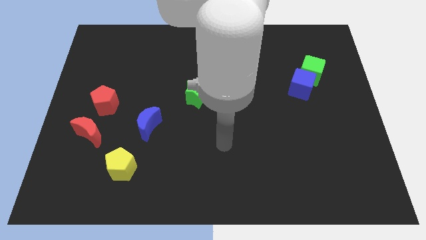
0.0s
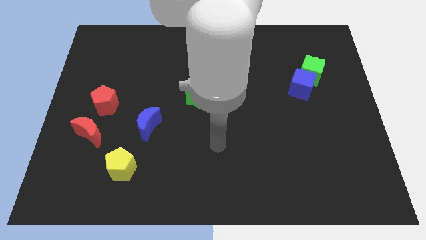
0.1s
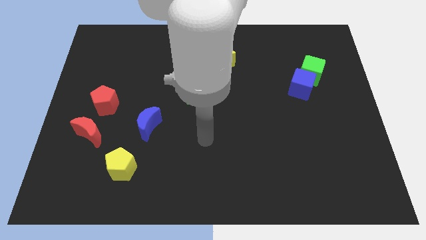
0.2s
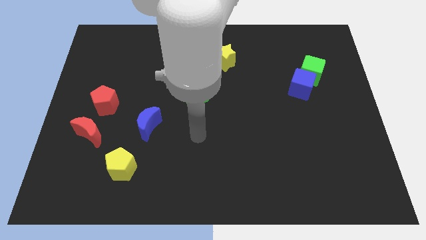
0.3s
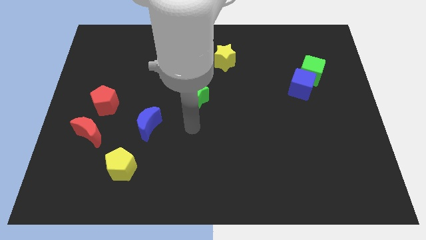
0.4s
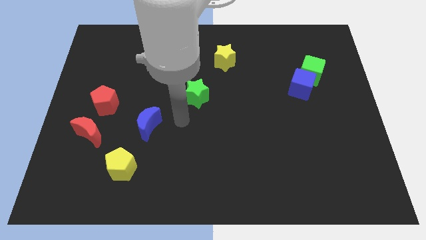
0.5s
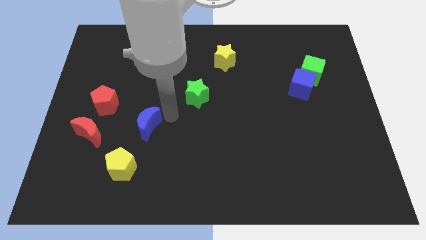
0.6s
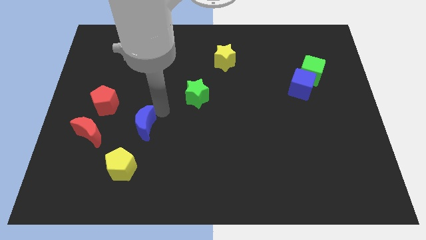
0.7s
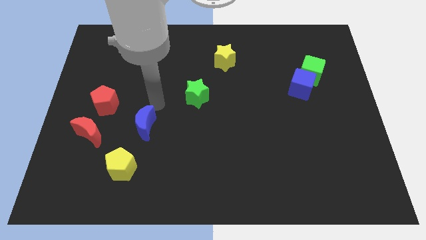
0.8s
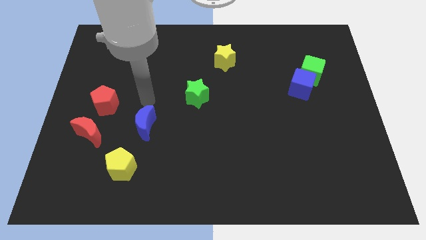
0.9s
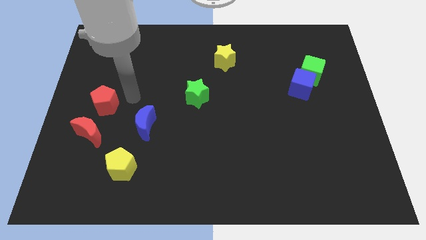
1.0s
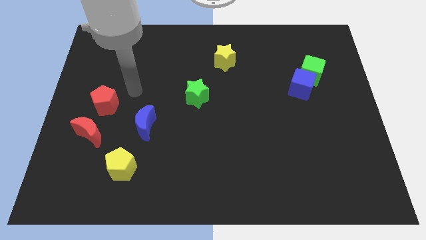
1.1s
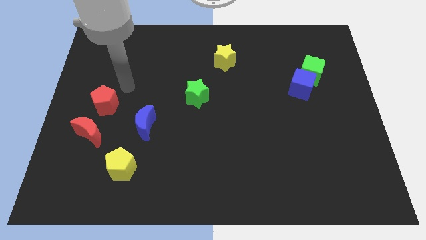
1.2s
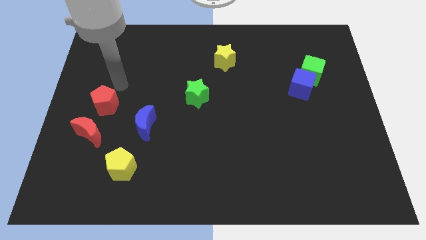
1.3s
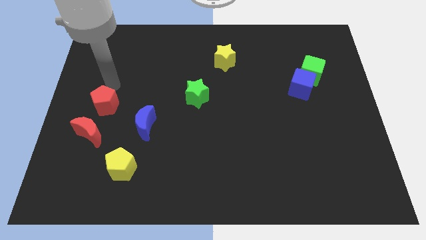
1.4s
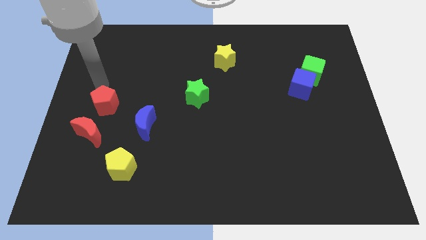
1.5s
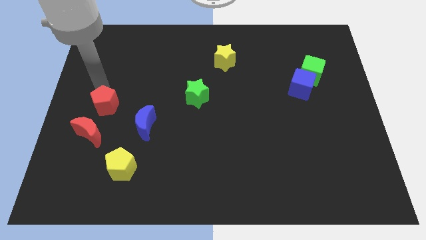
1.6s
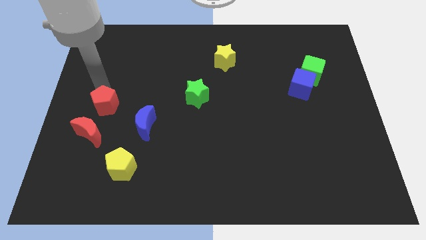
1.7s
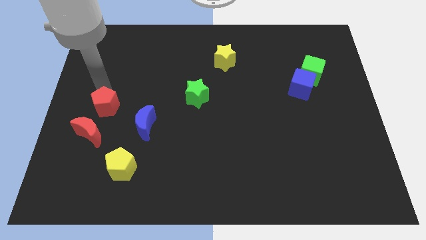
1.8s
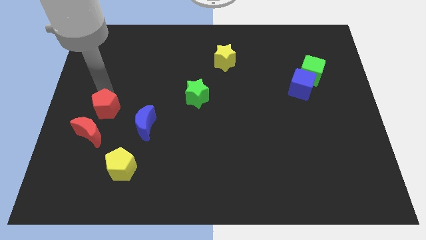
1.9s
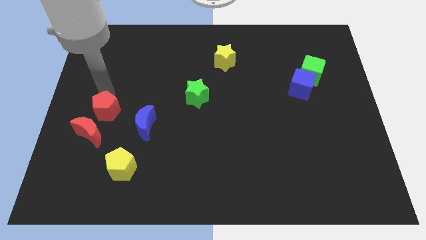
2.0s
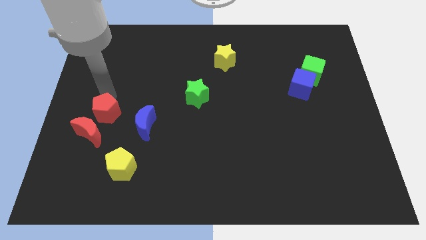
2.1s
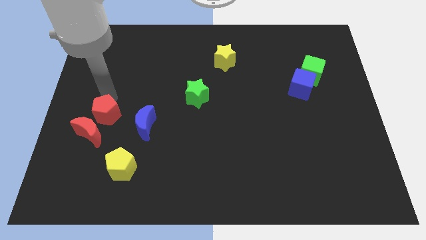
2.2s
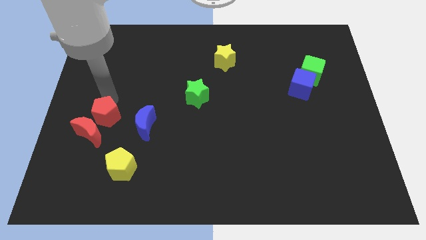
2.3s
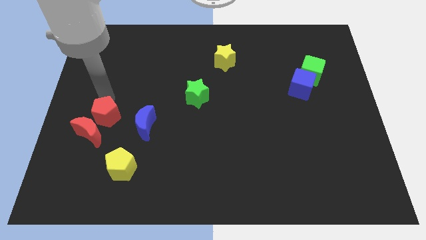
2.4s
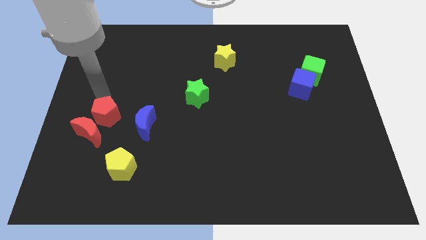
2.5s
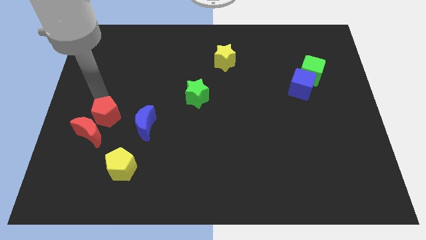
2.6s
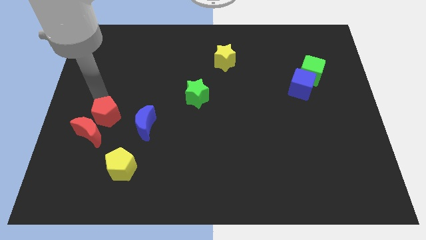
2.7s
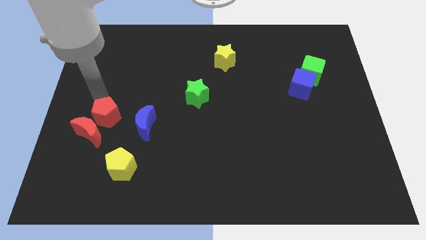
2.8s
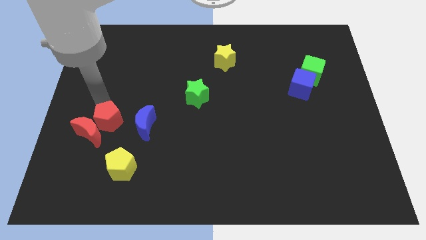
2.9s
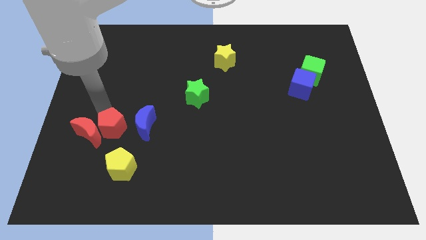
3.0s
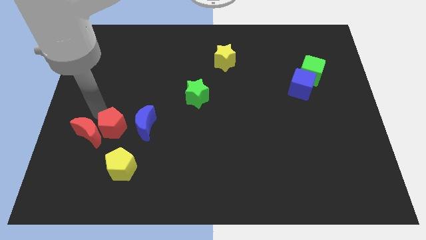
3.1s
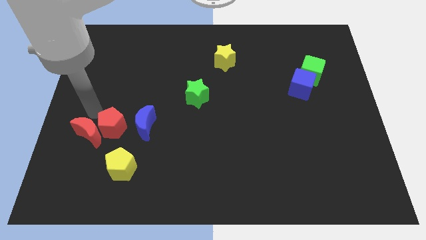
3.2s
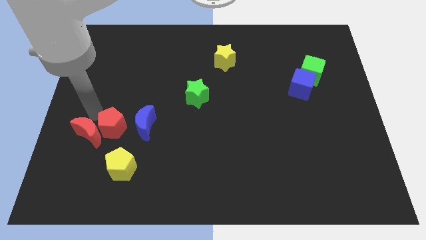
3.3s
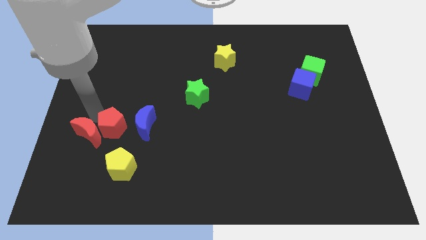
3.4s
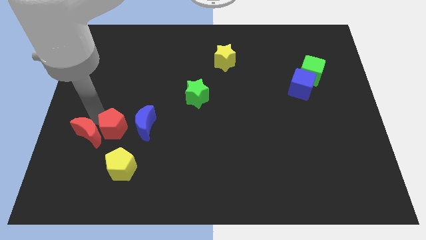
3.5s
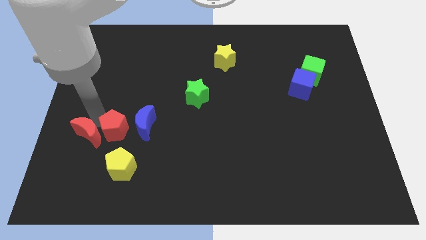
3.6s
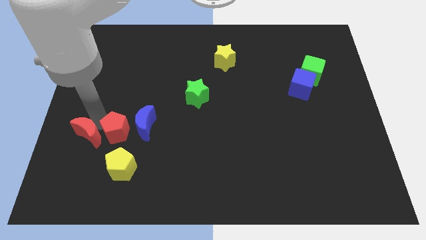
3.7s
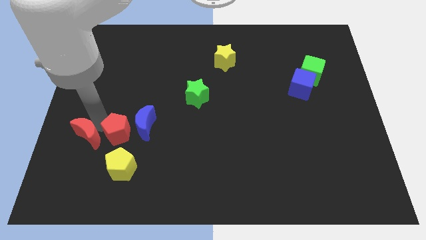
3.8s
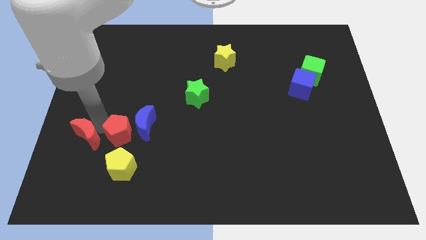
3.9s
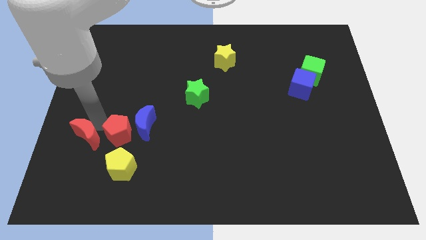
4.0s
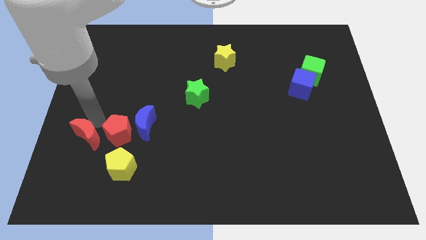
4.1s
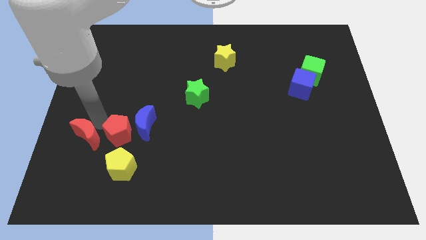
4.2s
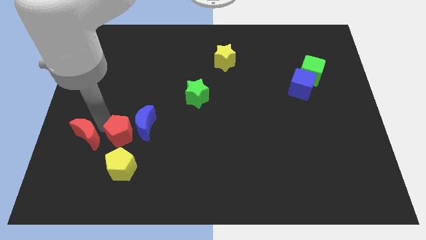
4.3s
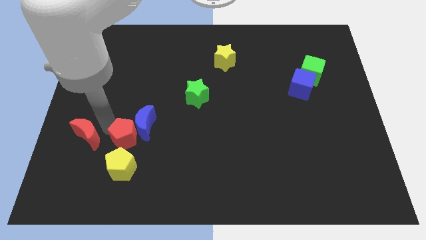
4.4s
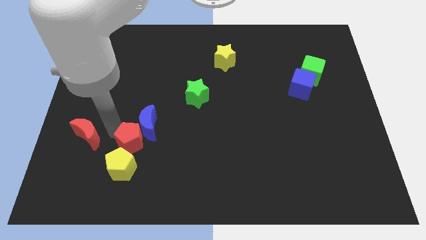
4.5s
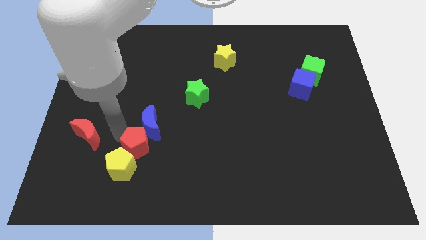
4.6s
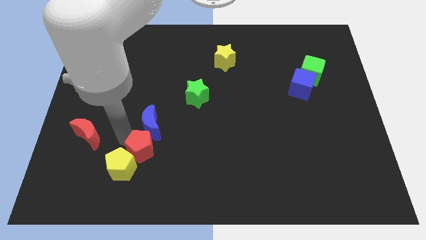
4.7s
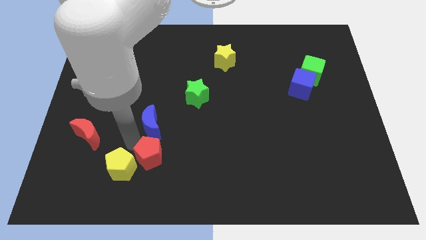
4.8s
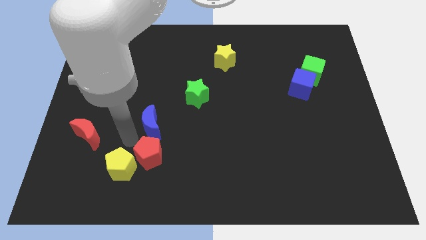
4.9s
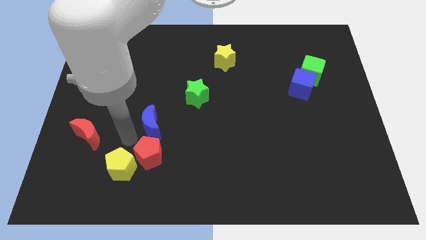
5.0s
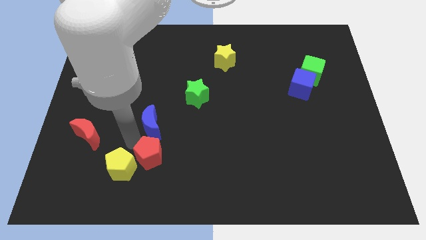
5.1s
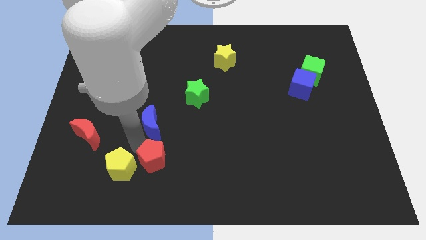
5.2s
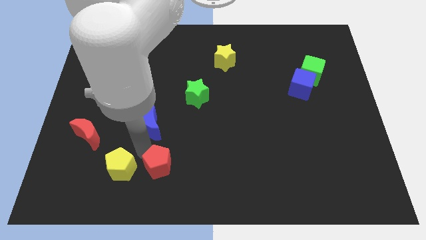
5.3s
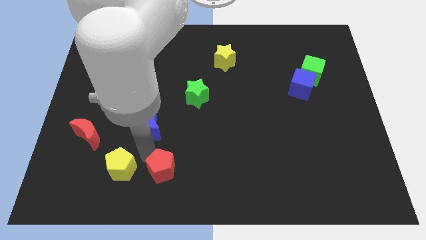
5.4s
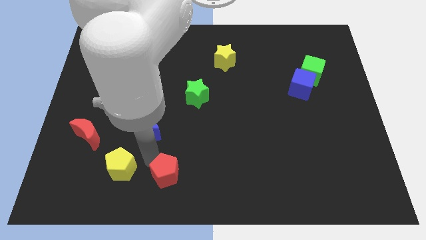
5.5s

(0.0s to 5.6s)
push the red pentagon to the bottom side

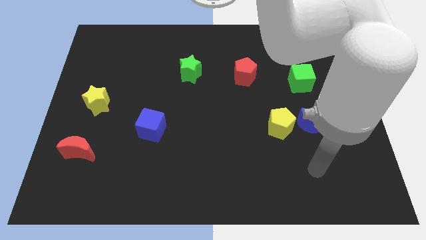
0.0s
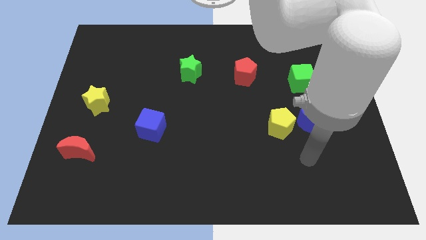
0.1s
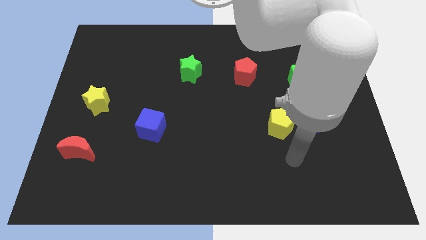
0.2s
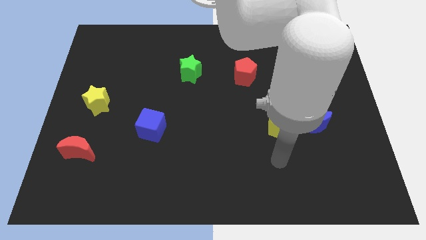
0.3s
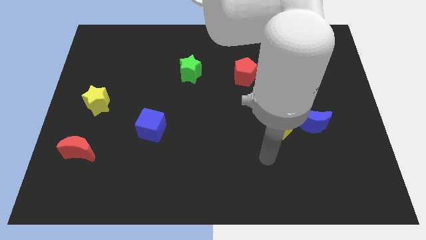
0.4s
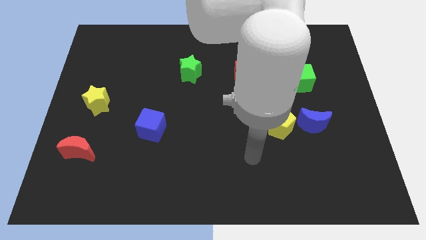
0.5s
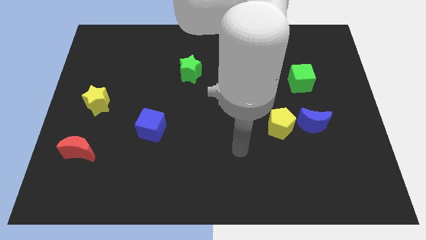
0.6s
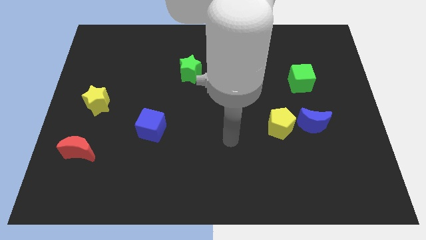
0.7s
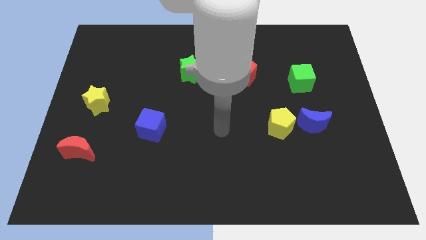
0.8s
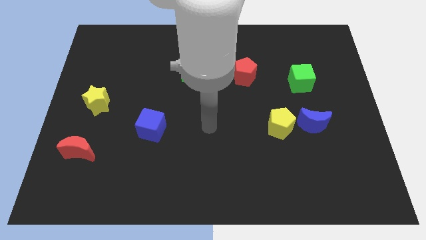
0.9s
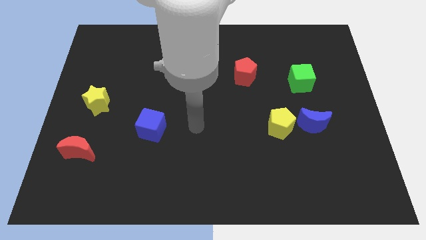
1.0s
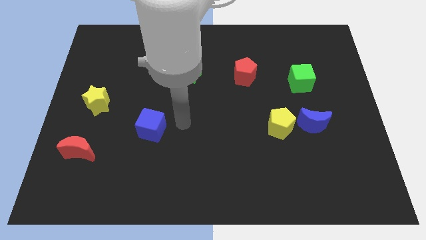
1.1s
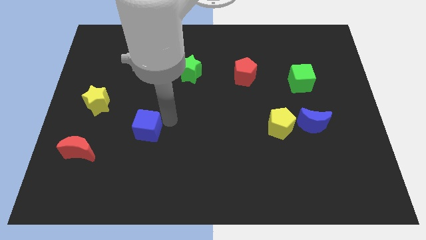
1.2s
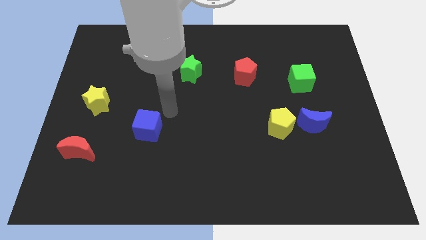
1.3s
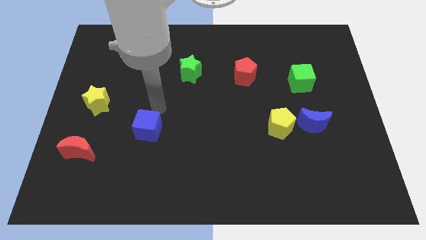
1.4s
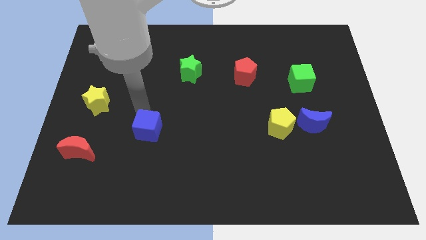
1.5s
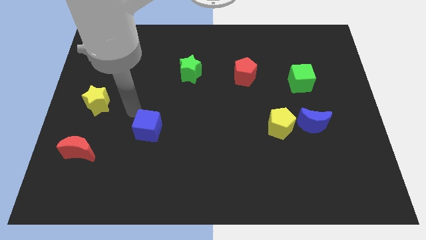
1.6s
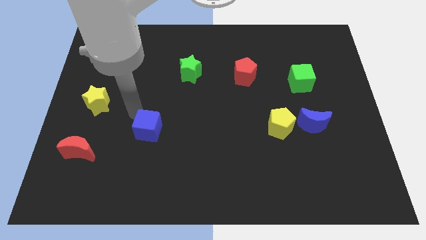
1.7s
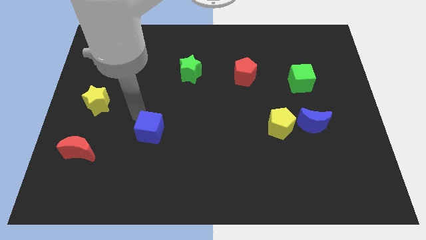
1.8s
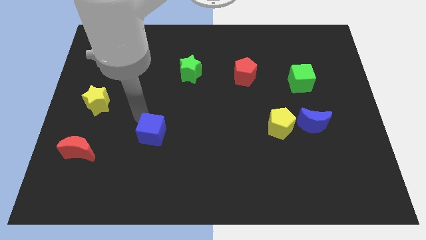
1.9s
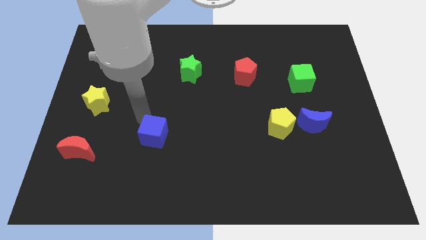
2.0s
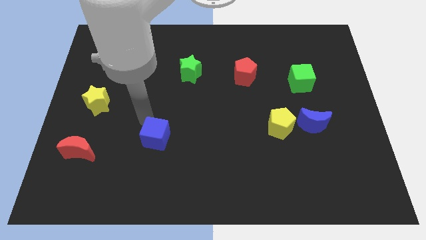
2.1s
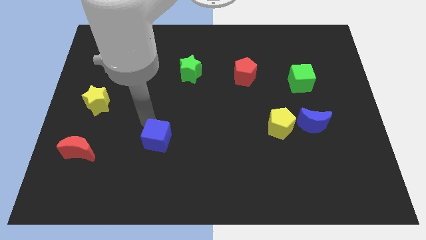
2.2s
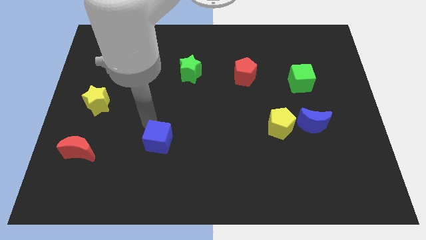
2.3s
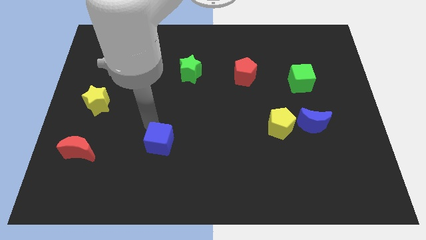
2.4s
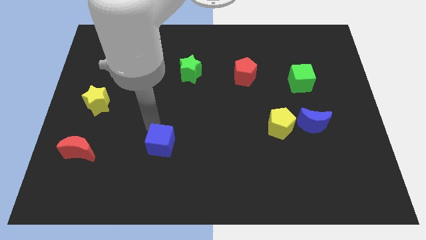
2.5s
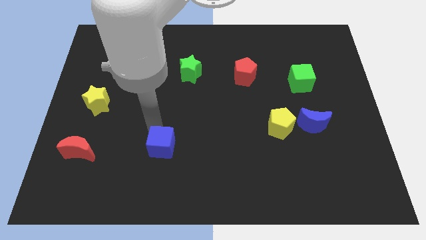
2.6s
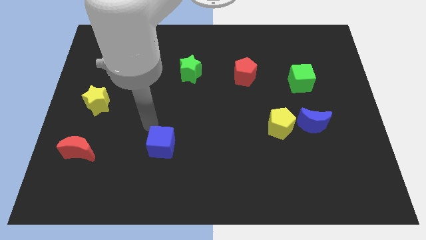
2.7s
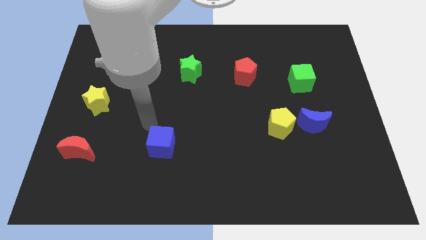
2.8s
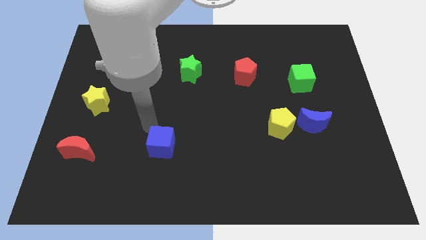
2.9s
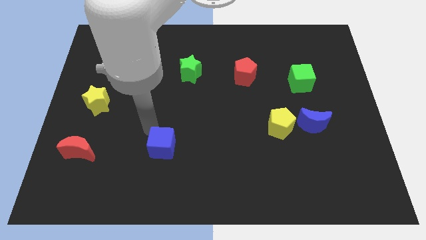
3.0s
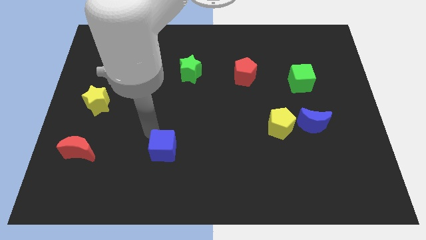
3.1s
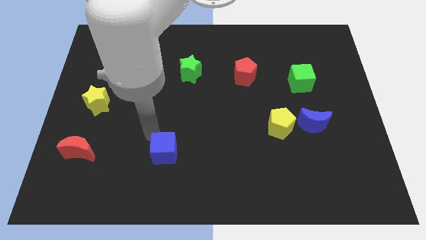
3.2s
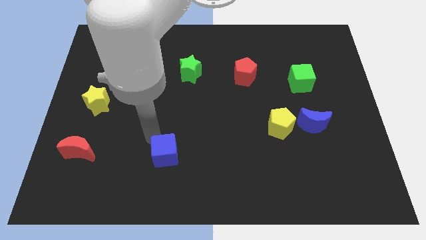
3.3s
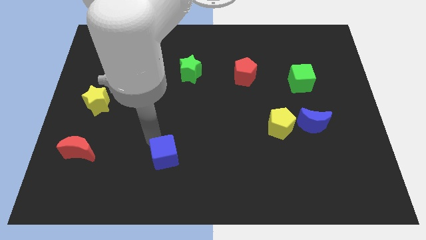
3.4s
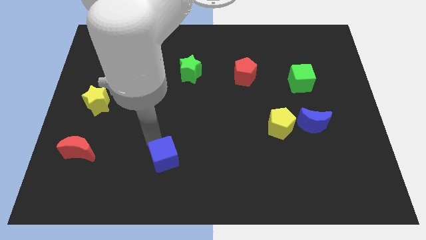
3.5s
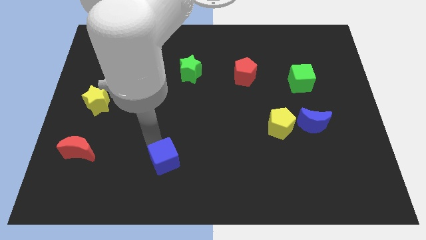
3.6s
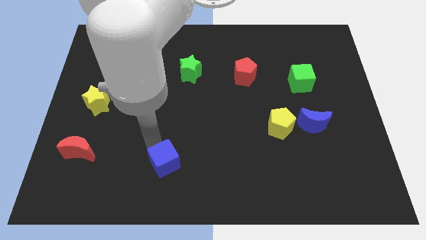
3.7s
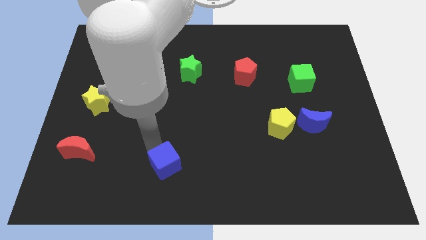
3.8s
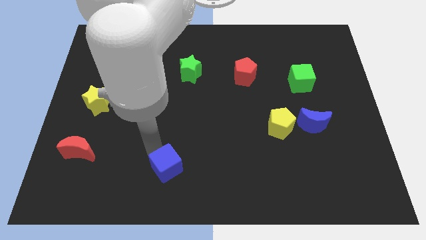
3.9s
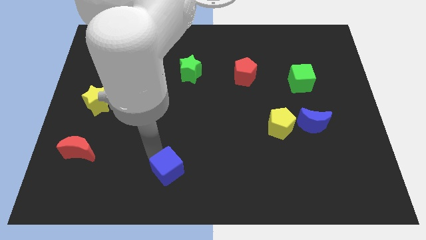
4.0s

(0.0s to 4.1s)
put the blue cube to the bottom
